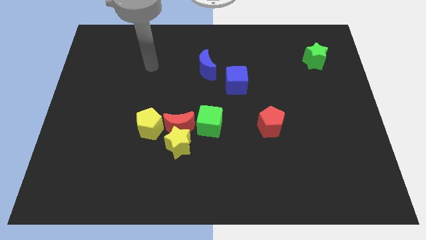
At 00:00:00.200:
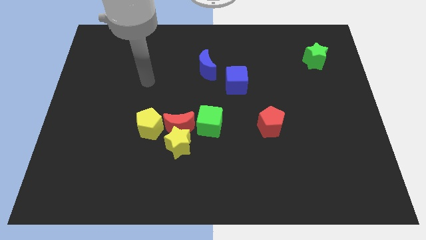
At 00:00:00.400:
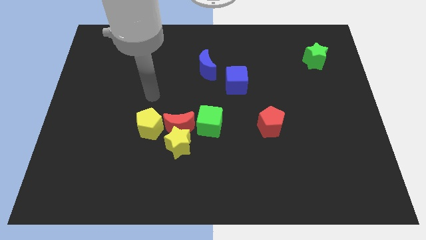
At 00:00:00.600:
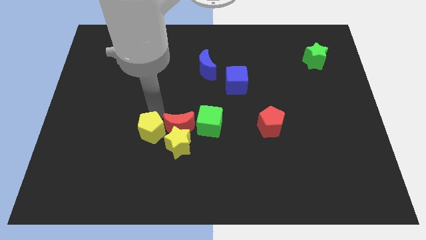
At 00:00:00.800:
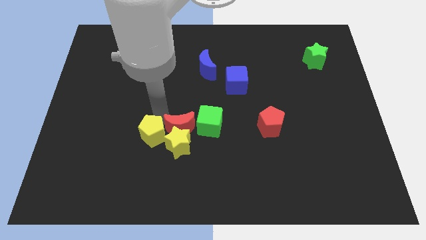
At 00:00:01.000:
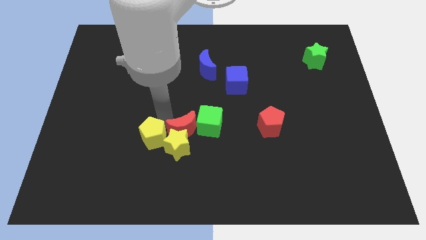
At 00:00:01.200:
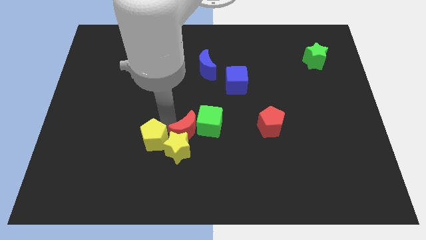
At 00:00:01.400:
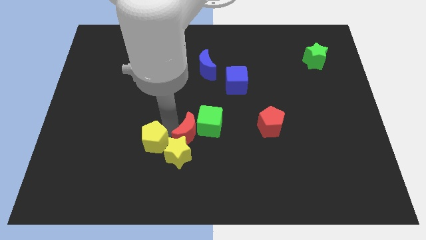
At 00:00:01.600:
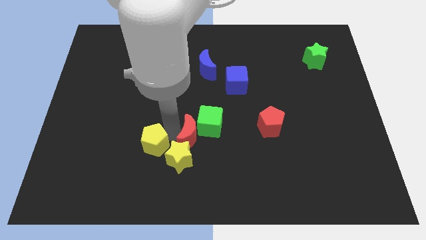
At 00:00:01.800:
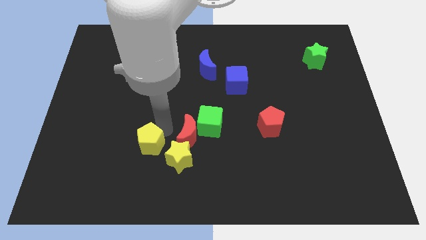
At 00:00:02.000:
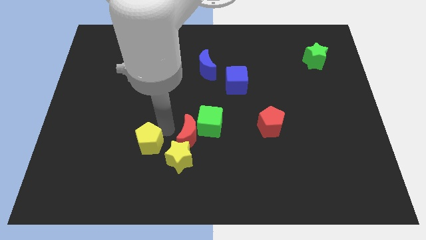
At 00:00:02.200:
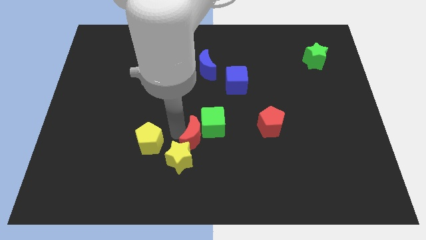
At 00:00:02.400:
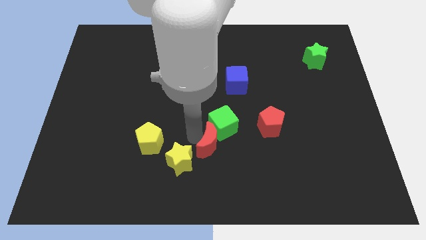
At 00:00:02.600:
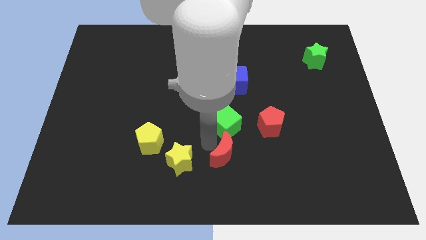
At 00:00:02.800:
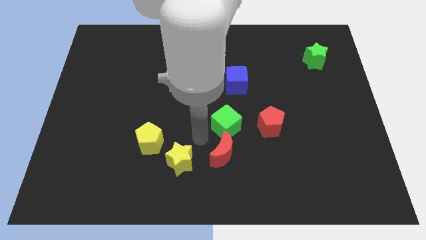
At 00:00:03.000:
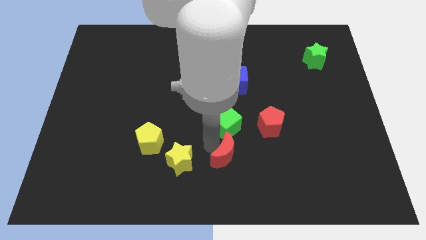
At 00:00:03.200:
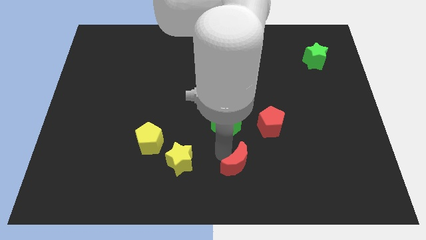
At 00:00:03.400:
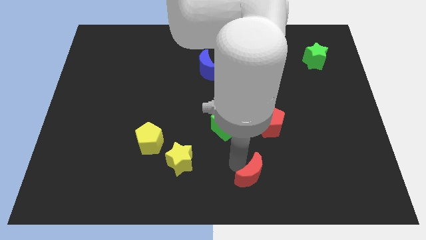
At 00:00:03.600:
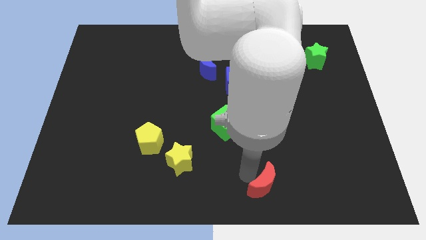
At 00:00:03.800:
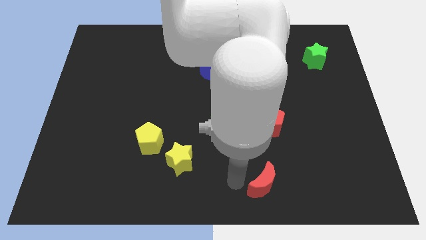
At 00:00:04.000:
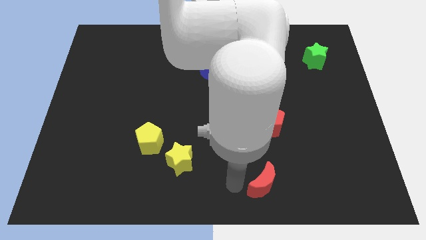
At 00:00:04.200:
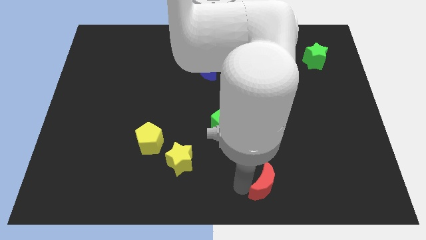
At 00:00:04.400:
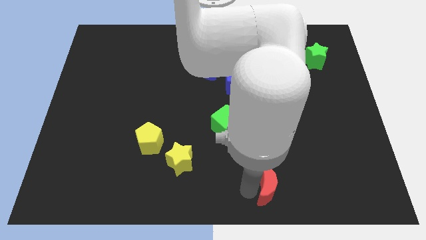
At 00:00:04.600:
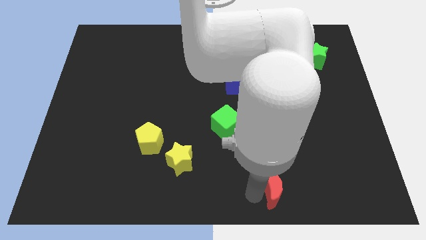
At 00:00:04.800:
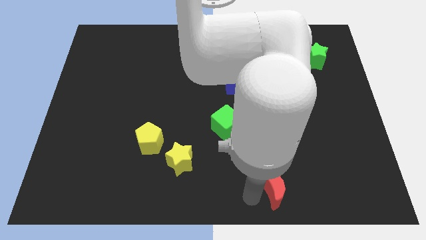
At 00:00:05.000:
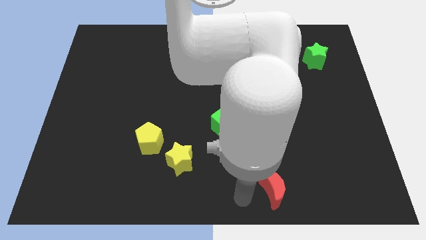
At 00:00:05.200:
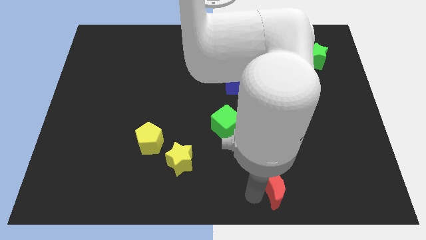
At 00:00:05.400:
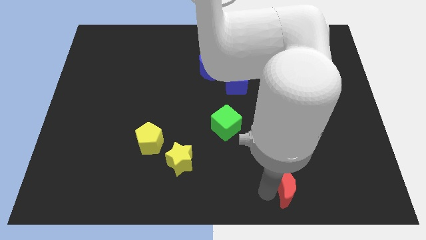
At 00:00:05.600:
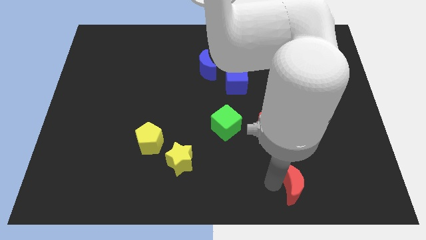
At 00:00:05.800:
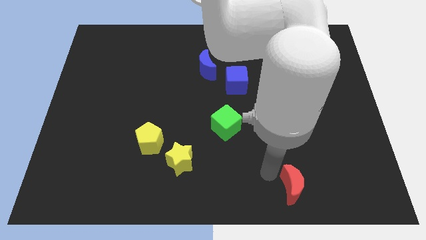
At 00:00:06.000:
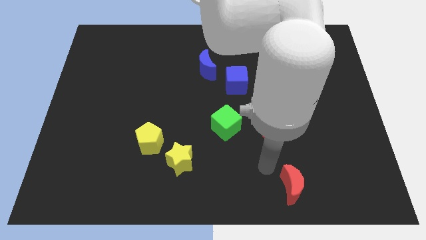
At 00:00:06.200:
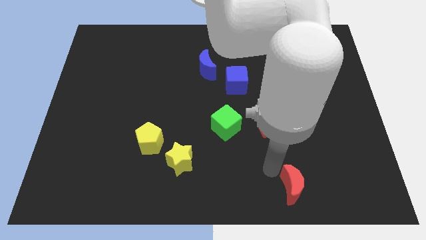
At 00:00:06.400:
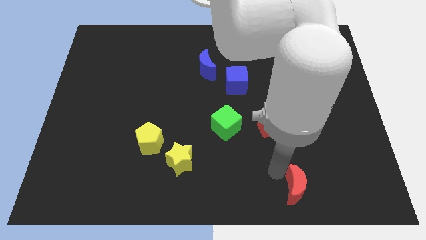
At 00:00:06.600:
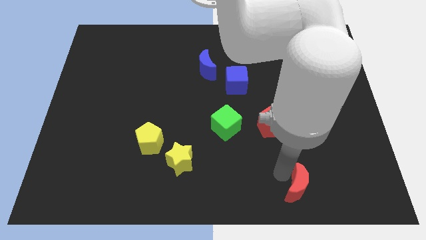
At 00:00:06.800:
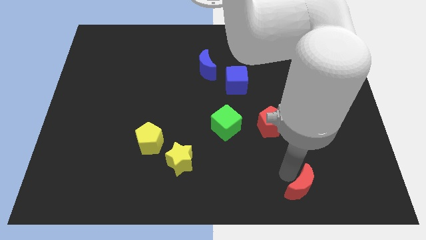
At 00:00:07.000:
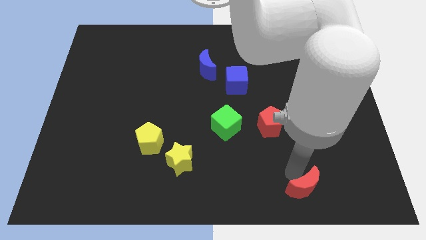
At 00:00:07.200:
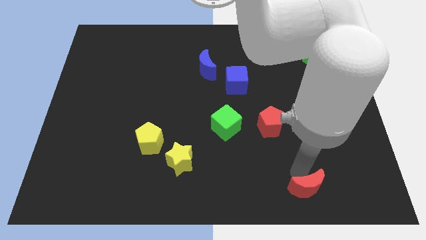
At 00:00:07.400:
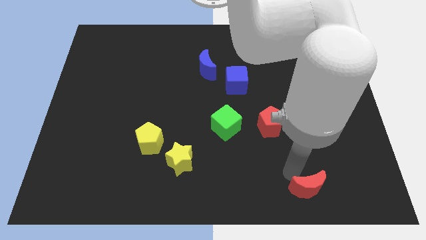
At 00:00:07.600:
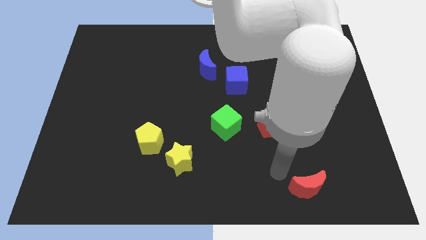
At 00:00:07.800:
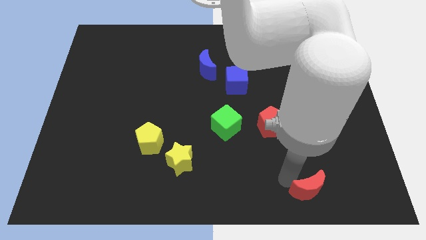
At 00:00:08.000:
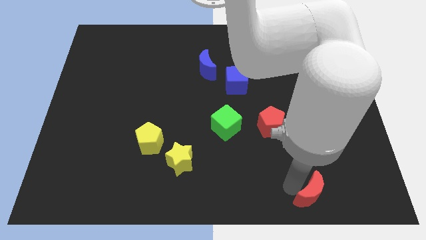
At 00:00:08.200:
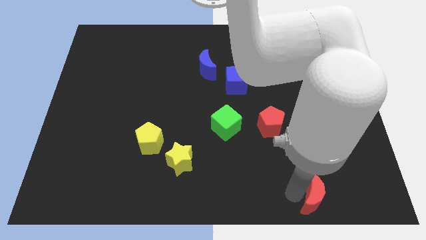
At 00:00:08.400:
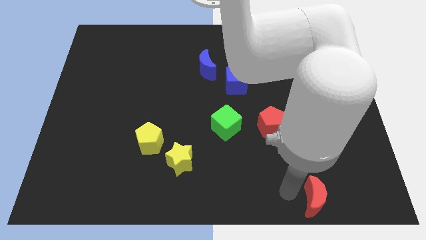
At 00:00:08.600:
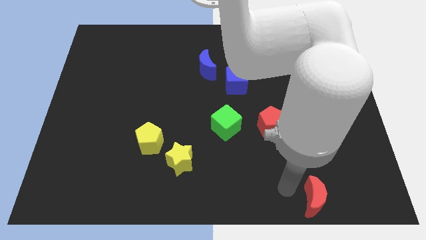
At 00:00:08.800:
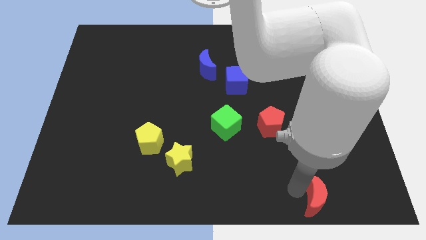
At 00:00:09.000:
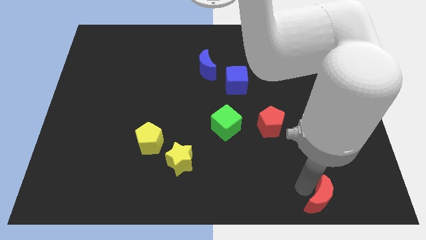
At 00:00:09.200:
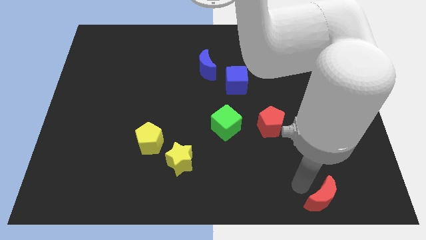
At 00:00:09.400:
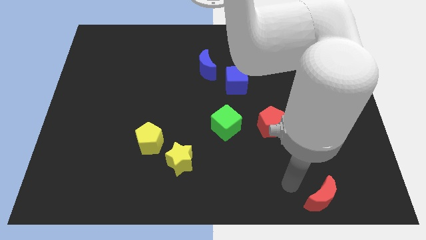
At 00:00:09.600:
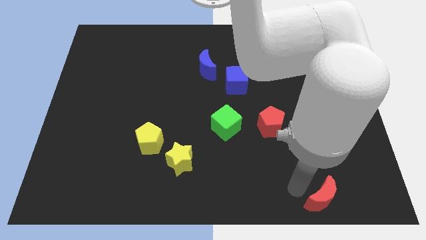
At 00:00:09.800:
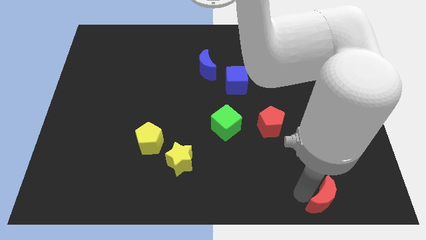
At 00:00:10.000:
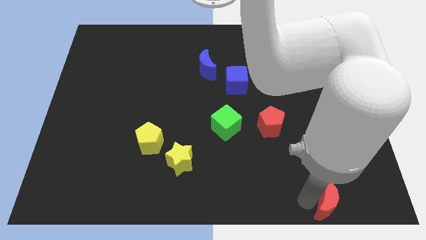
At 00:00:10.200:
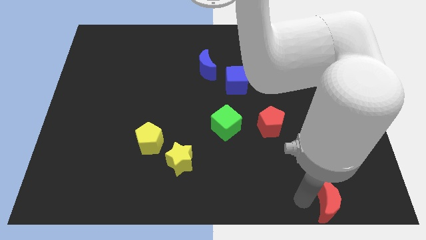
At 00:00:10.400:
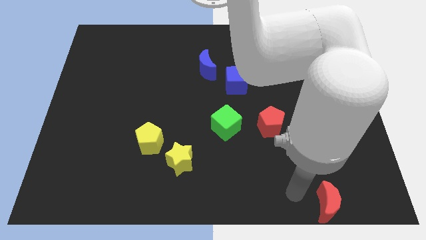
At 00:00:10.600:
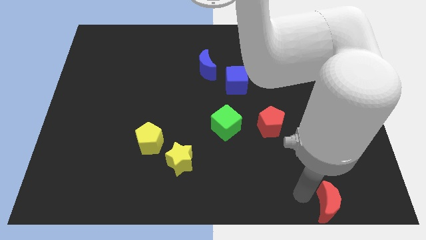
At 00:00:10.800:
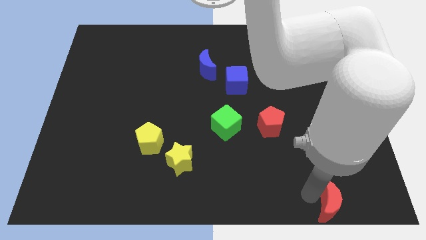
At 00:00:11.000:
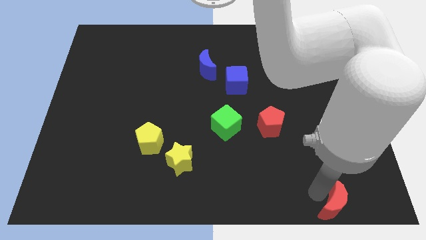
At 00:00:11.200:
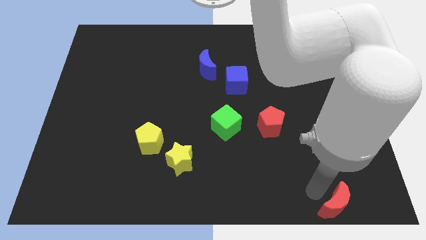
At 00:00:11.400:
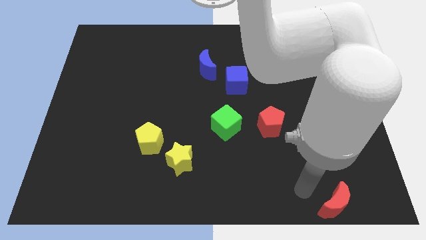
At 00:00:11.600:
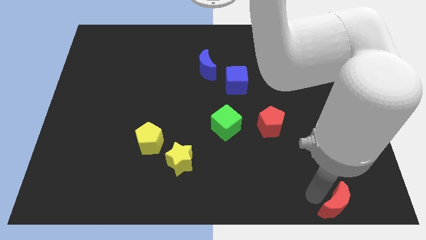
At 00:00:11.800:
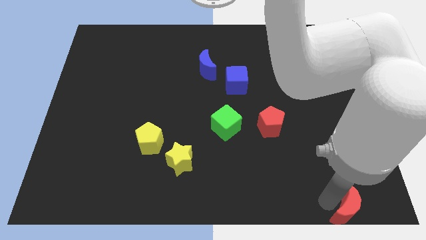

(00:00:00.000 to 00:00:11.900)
put the red moon to the bottom right
